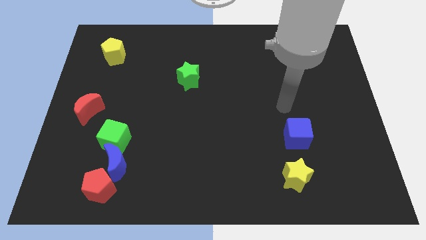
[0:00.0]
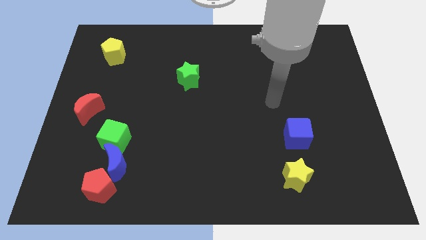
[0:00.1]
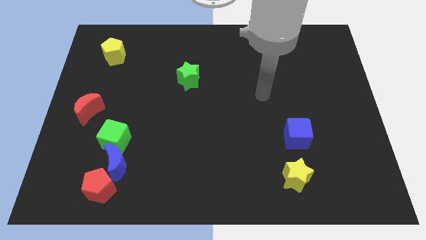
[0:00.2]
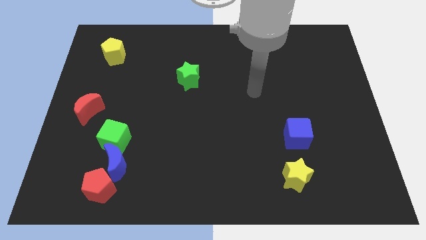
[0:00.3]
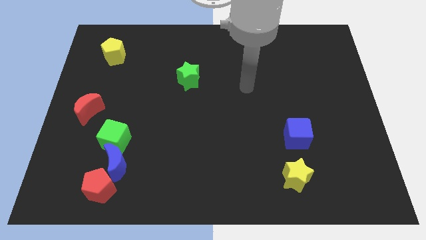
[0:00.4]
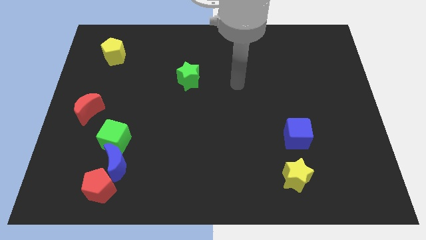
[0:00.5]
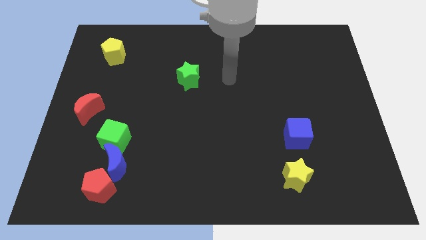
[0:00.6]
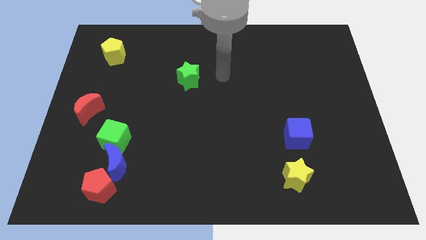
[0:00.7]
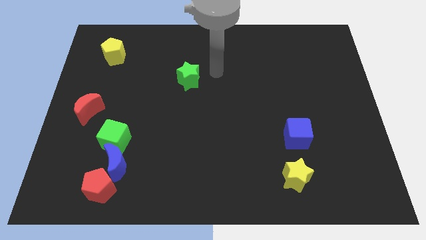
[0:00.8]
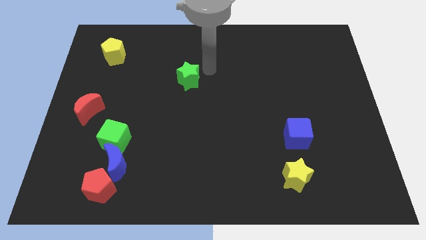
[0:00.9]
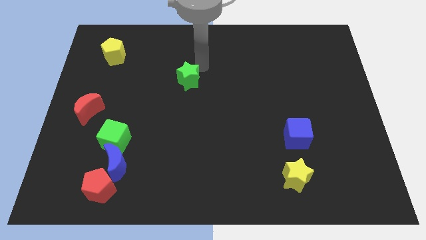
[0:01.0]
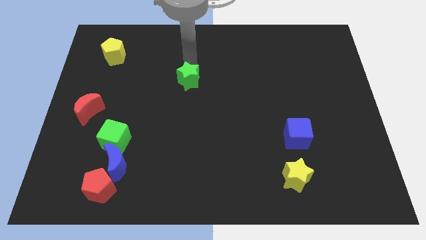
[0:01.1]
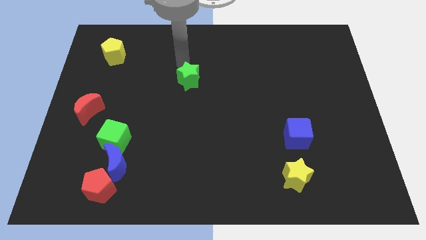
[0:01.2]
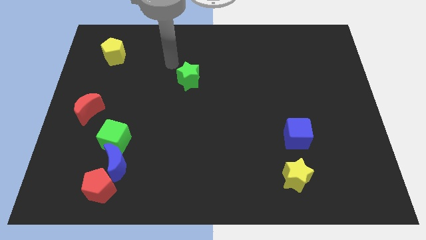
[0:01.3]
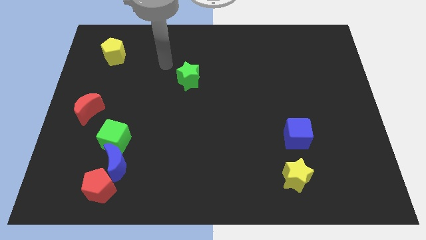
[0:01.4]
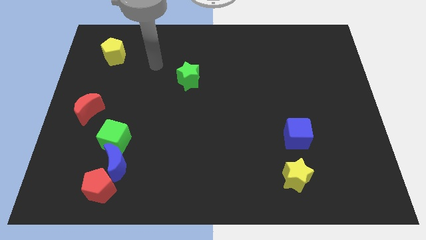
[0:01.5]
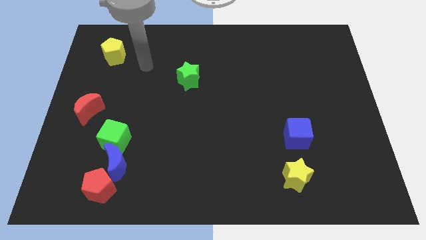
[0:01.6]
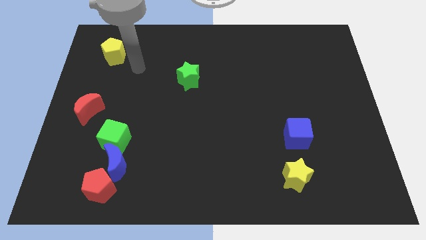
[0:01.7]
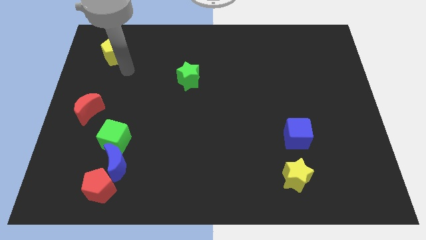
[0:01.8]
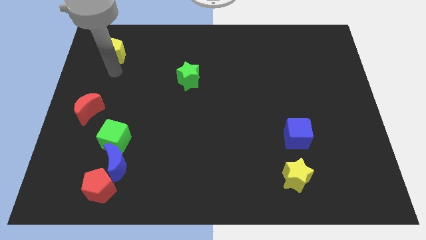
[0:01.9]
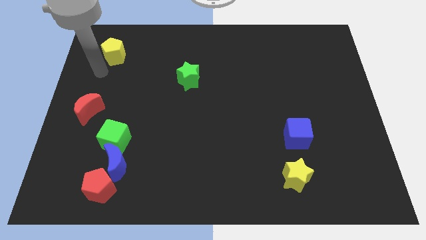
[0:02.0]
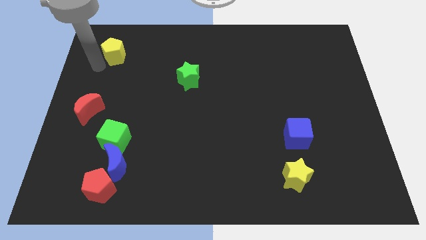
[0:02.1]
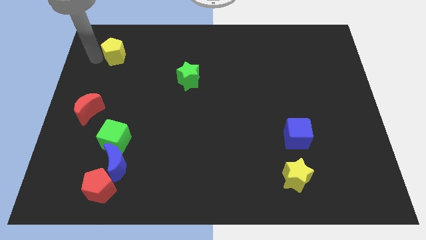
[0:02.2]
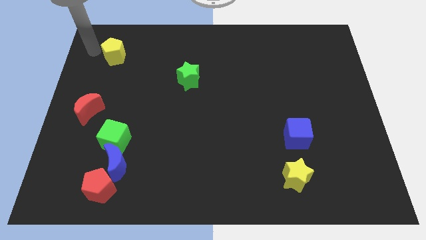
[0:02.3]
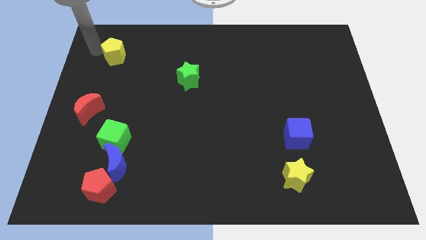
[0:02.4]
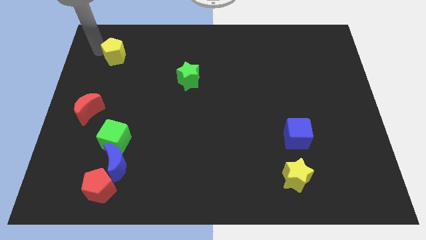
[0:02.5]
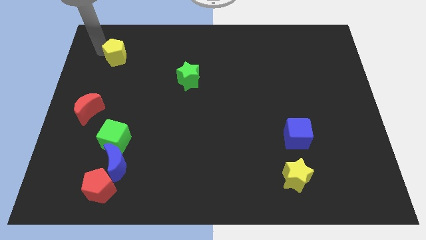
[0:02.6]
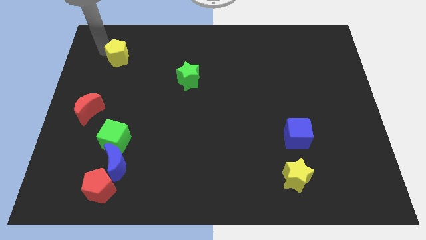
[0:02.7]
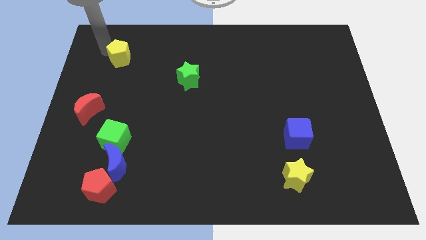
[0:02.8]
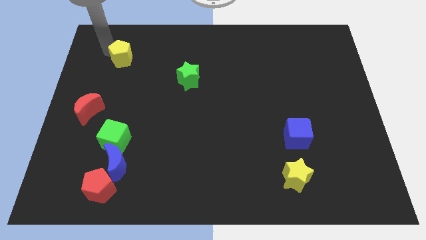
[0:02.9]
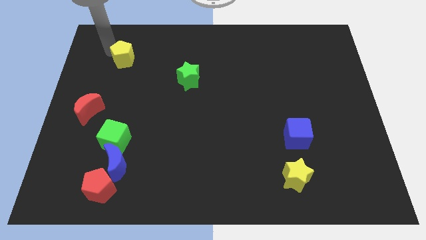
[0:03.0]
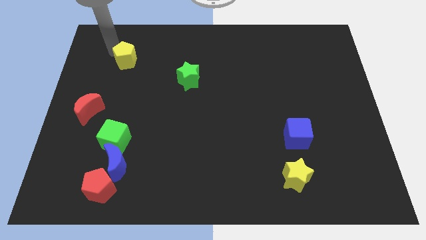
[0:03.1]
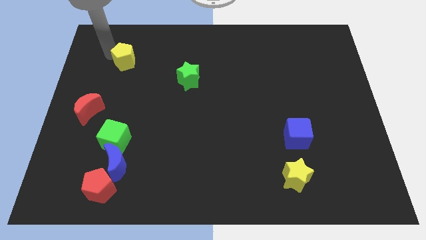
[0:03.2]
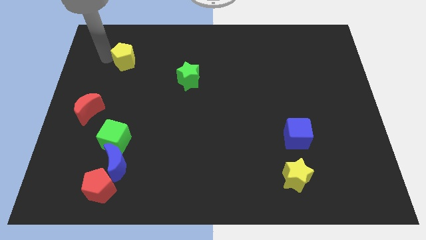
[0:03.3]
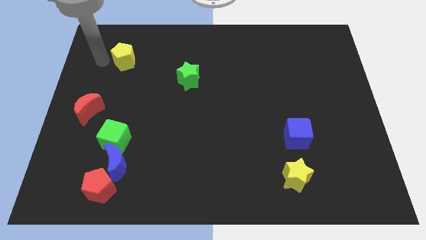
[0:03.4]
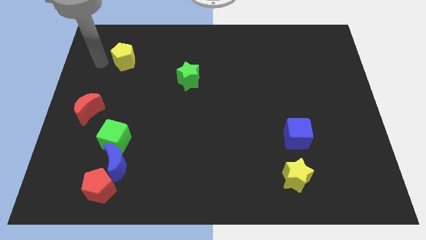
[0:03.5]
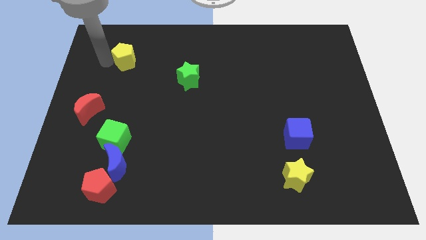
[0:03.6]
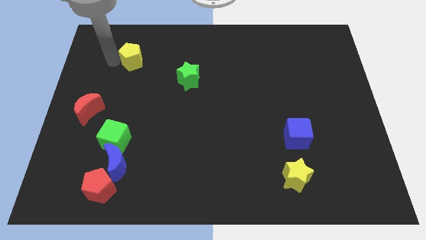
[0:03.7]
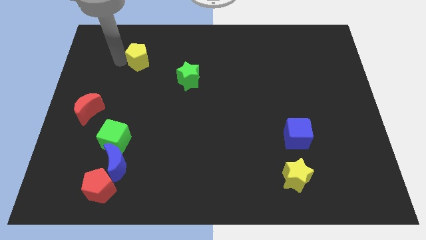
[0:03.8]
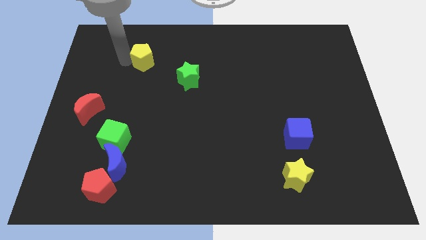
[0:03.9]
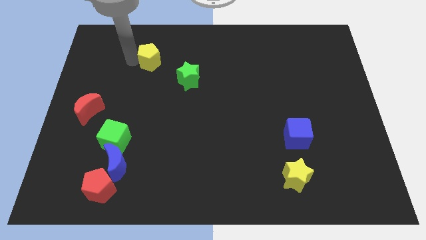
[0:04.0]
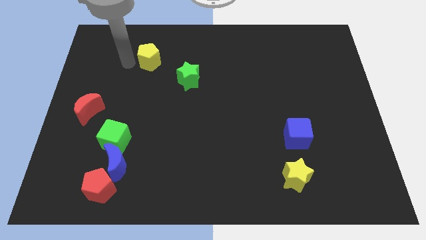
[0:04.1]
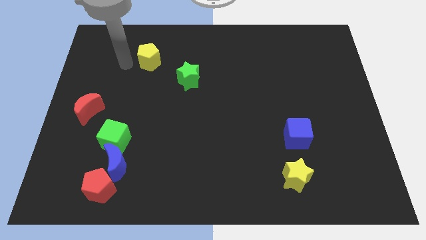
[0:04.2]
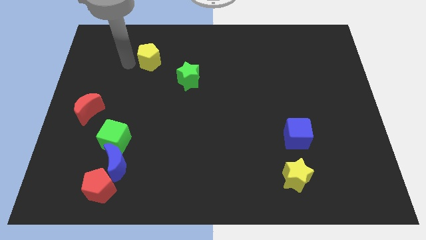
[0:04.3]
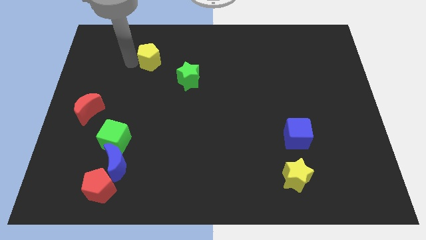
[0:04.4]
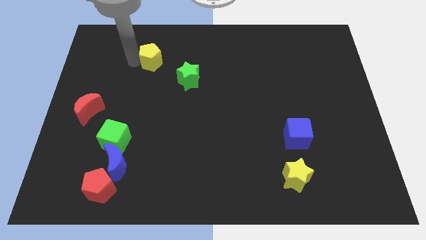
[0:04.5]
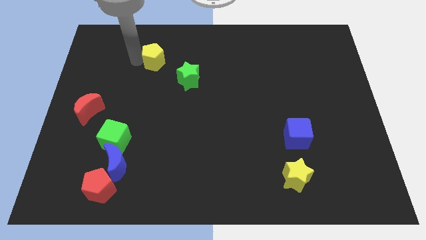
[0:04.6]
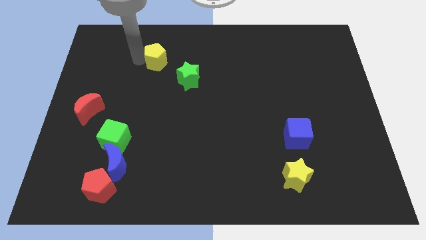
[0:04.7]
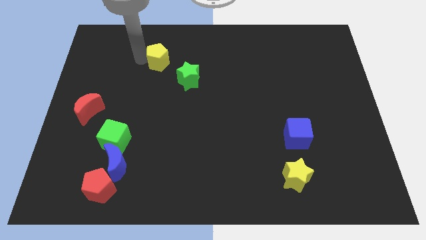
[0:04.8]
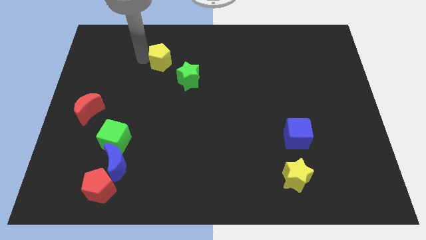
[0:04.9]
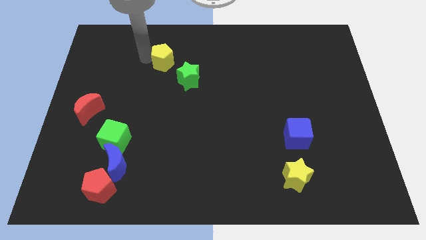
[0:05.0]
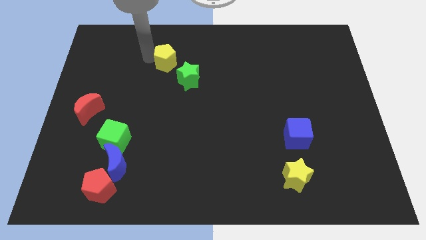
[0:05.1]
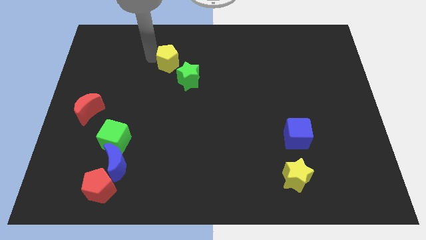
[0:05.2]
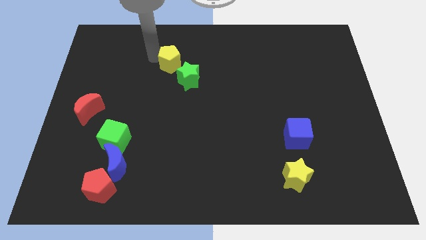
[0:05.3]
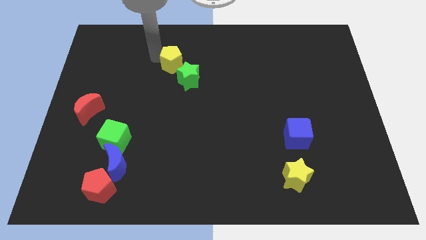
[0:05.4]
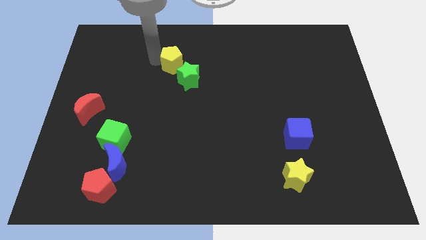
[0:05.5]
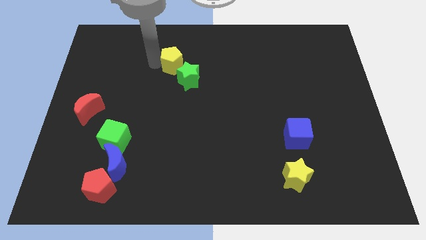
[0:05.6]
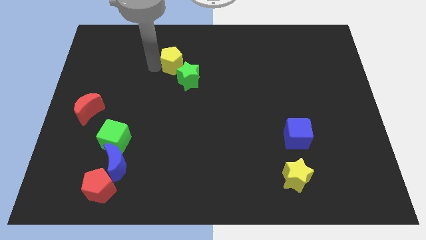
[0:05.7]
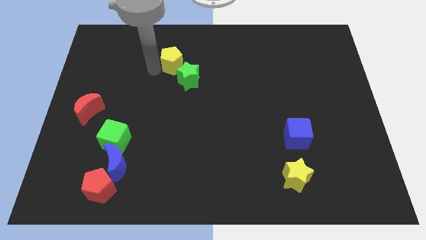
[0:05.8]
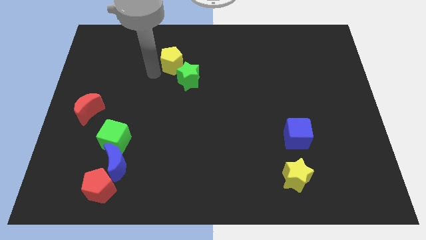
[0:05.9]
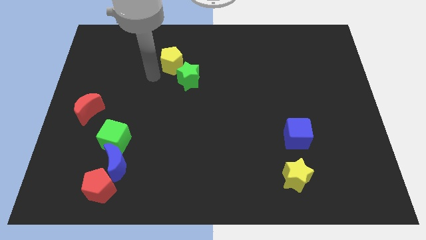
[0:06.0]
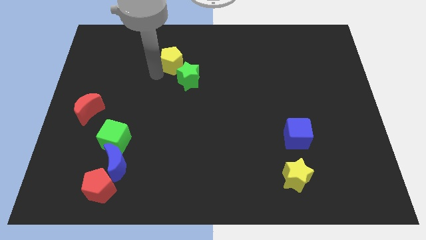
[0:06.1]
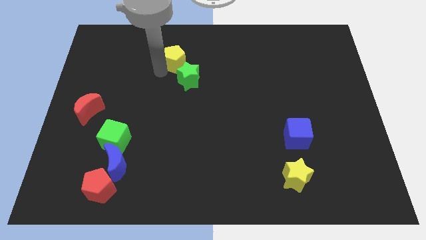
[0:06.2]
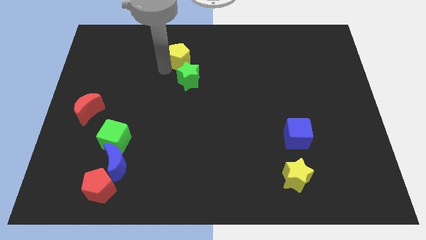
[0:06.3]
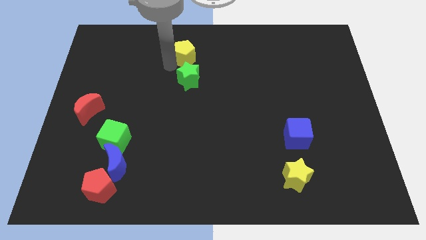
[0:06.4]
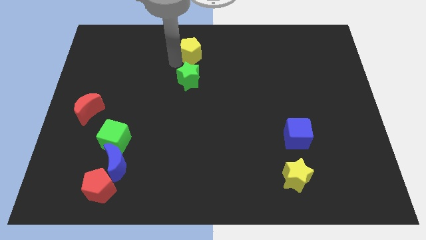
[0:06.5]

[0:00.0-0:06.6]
push the yellow pentagon to the right

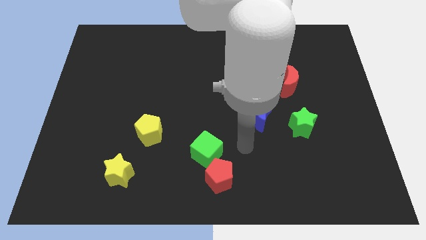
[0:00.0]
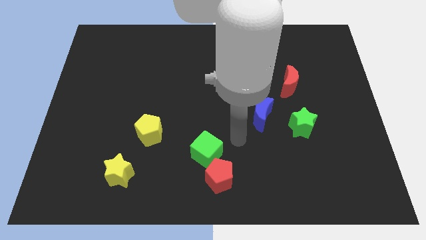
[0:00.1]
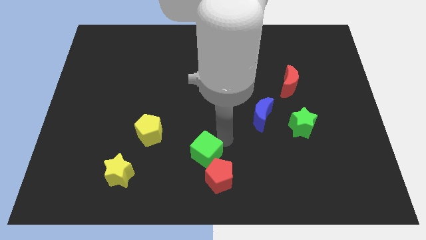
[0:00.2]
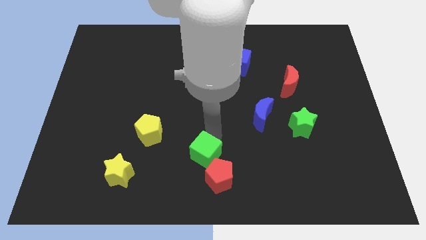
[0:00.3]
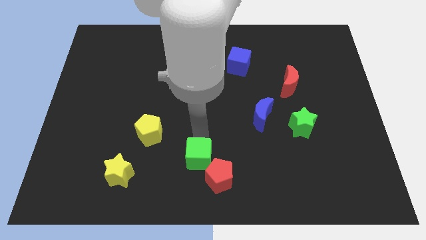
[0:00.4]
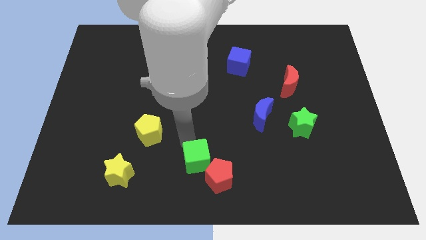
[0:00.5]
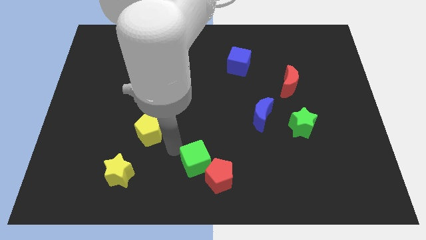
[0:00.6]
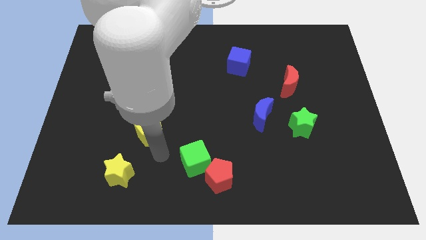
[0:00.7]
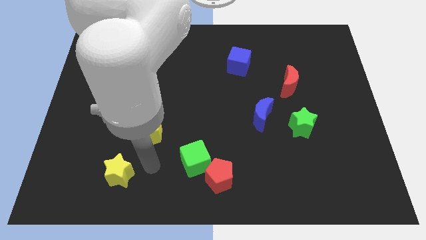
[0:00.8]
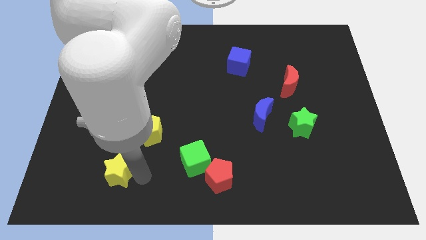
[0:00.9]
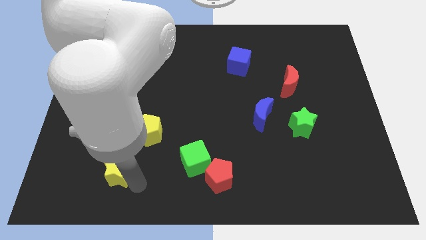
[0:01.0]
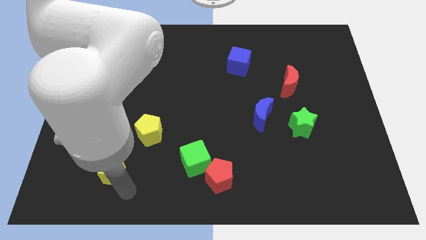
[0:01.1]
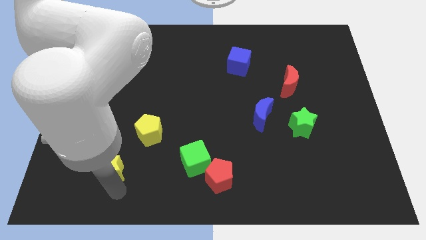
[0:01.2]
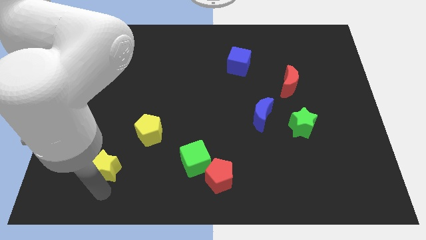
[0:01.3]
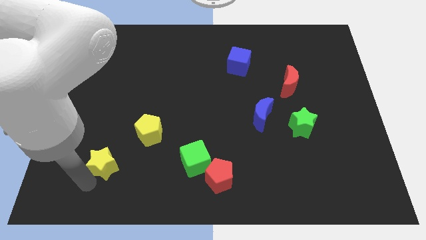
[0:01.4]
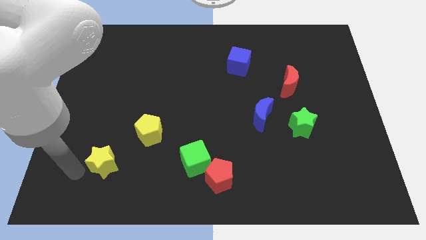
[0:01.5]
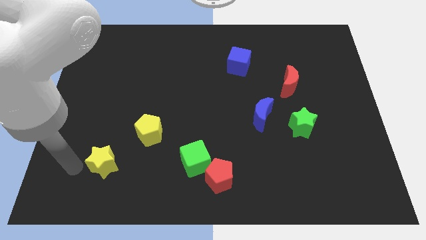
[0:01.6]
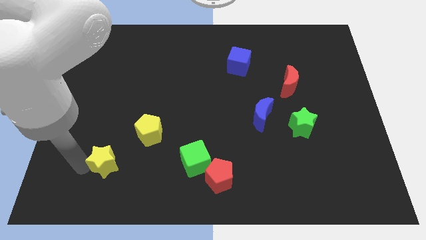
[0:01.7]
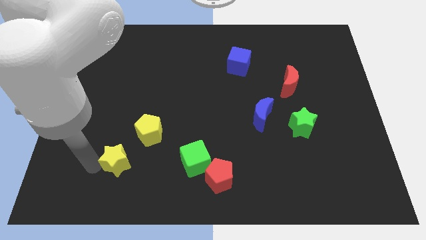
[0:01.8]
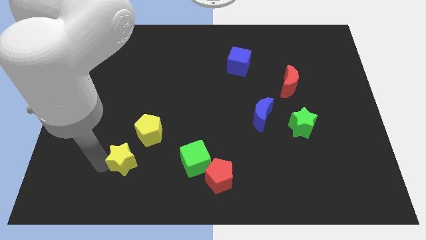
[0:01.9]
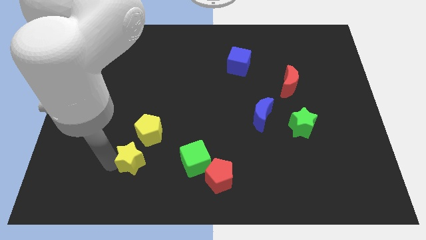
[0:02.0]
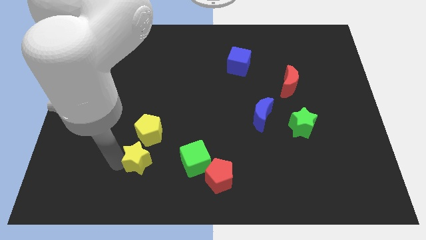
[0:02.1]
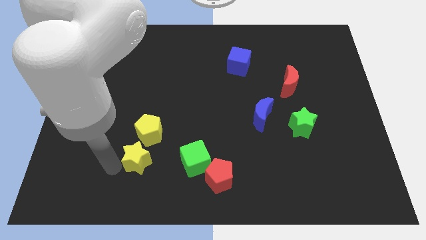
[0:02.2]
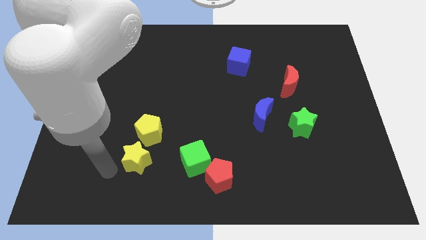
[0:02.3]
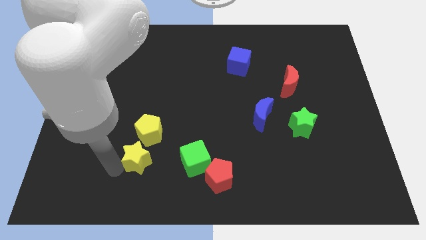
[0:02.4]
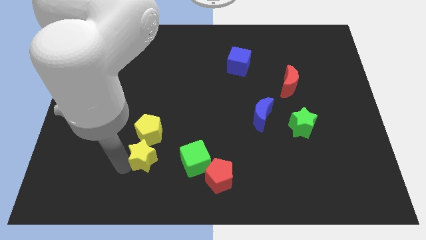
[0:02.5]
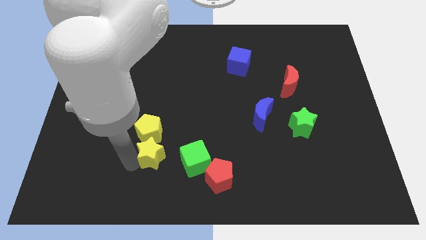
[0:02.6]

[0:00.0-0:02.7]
slide the yellow star a little upwards and then to the right
